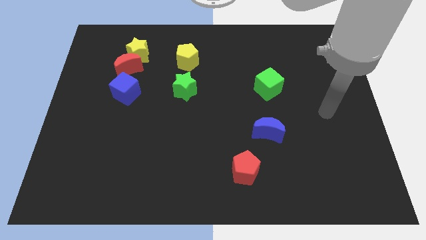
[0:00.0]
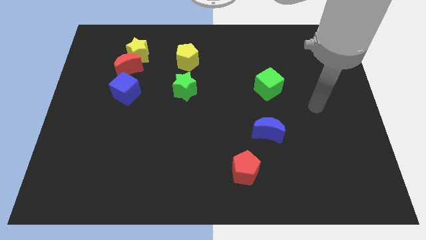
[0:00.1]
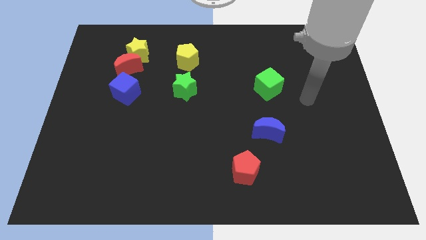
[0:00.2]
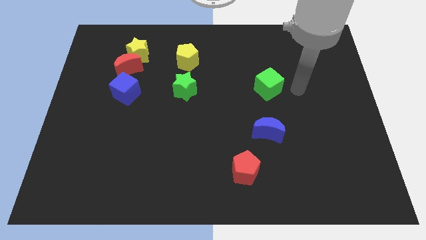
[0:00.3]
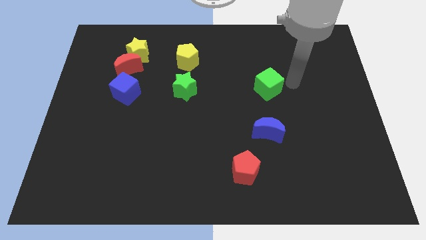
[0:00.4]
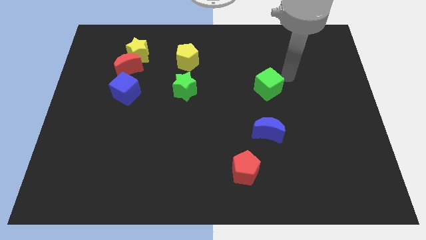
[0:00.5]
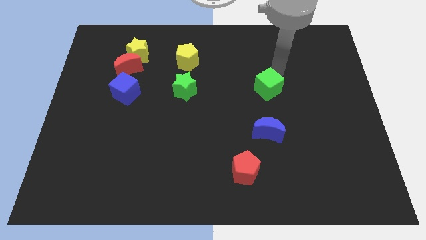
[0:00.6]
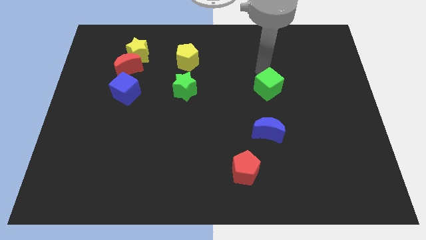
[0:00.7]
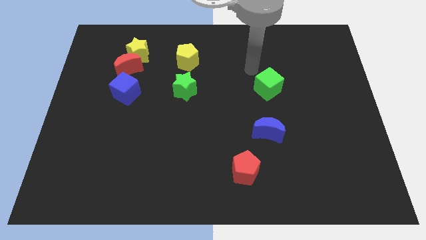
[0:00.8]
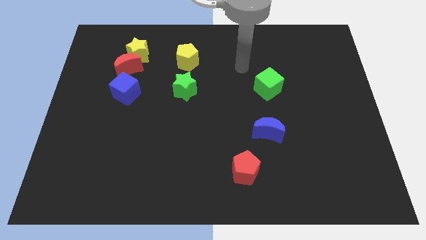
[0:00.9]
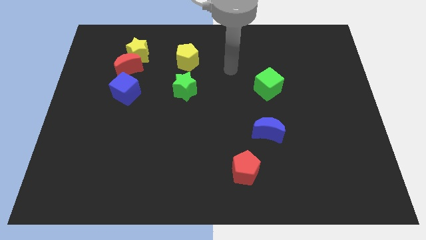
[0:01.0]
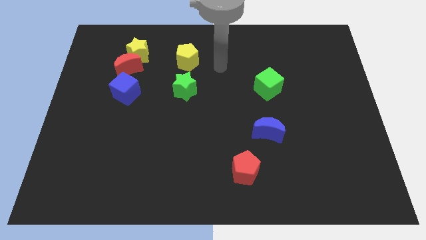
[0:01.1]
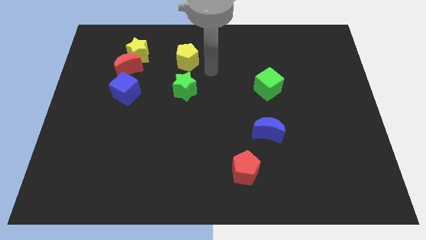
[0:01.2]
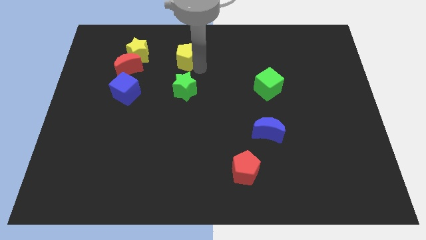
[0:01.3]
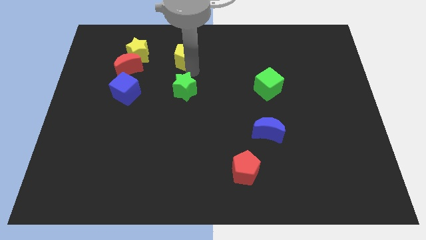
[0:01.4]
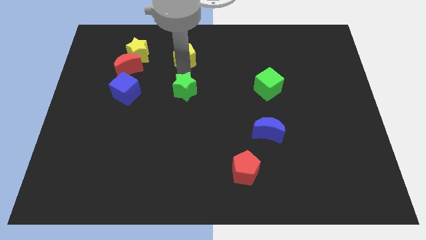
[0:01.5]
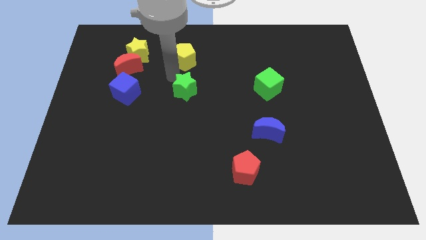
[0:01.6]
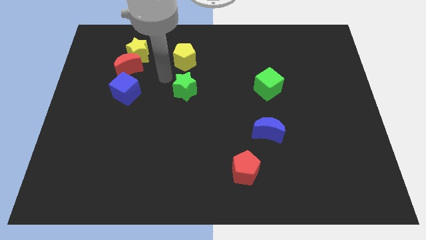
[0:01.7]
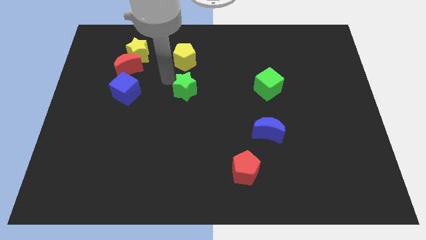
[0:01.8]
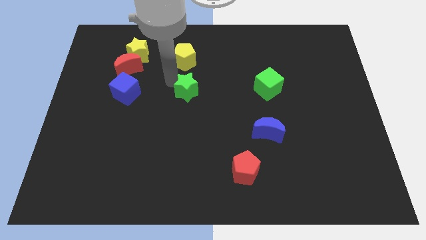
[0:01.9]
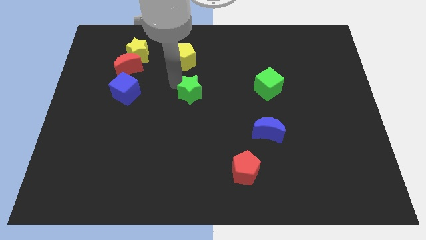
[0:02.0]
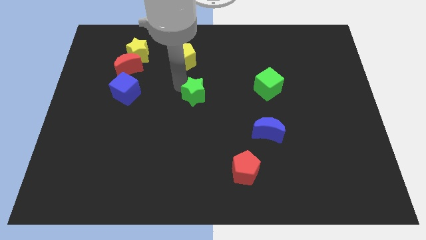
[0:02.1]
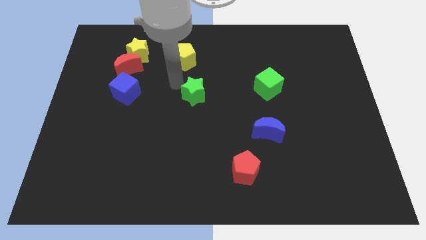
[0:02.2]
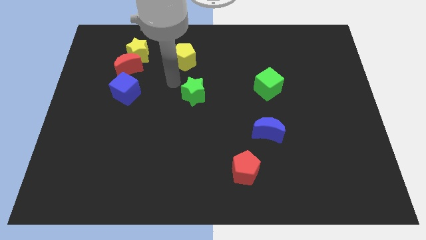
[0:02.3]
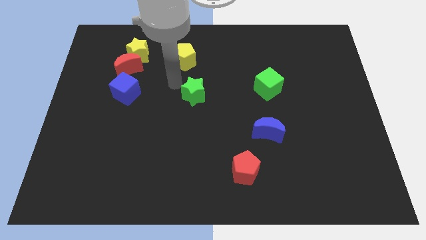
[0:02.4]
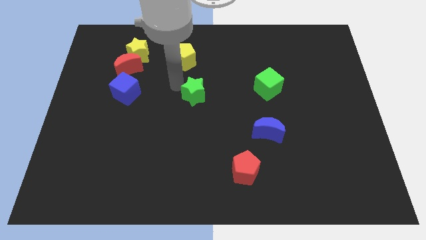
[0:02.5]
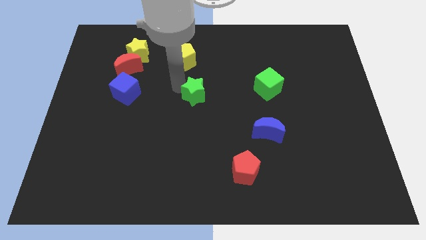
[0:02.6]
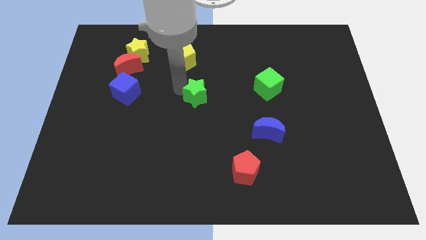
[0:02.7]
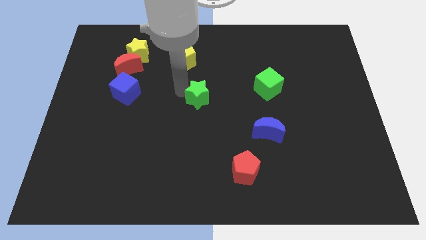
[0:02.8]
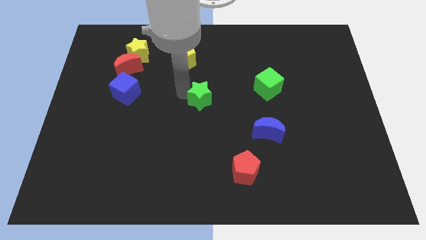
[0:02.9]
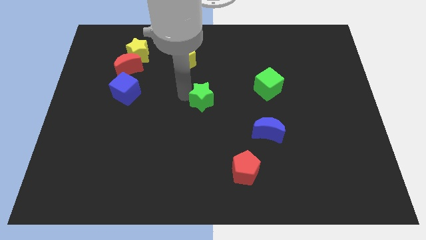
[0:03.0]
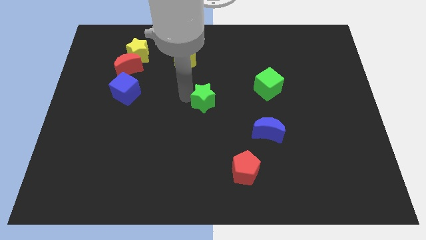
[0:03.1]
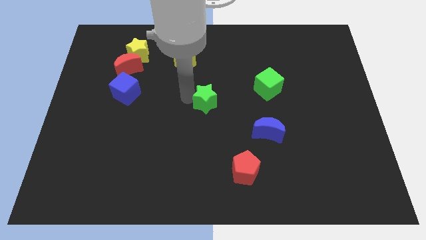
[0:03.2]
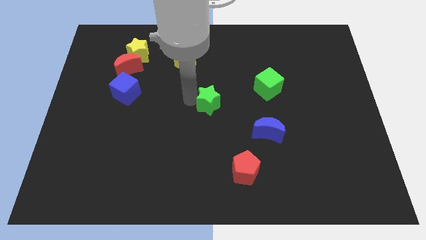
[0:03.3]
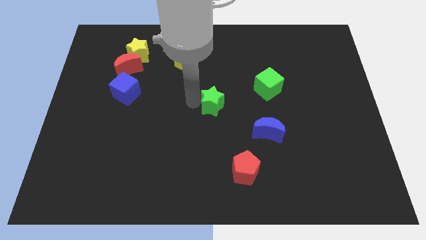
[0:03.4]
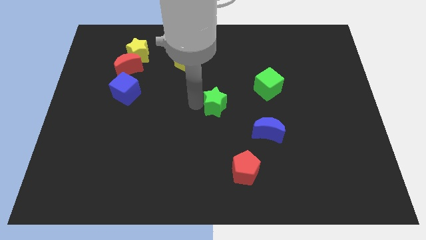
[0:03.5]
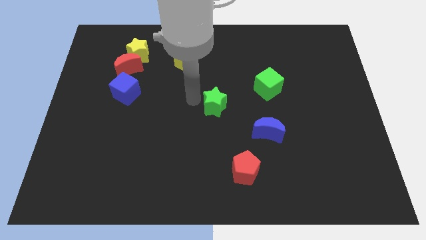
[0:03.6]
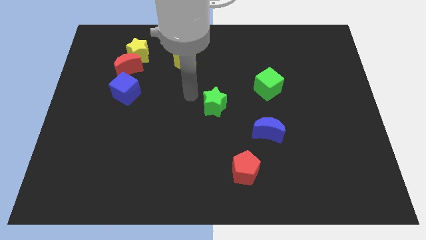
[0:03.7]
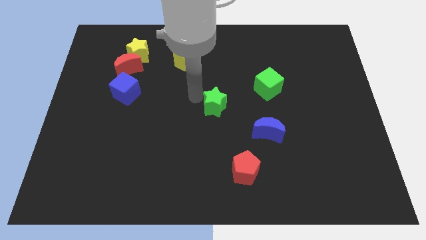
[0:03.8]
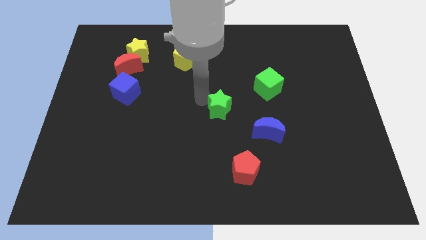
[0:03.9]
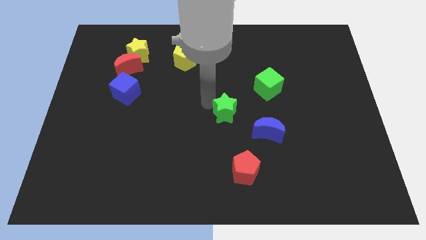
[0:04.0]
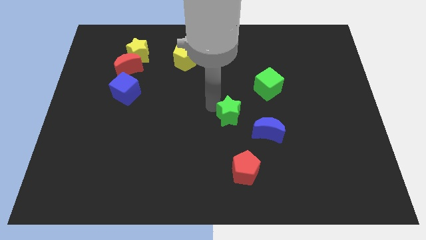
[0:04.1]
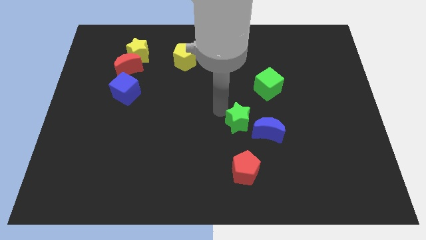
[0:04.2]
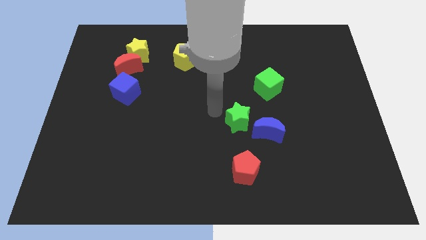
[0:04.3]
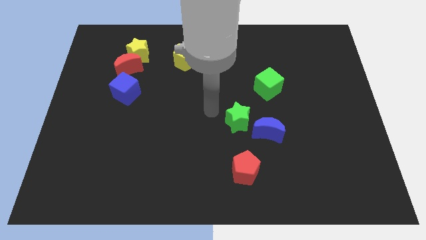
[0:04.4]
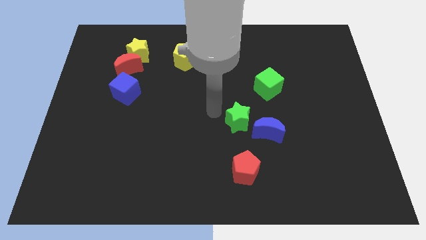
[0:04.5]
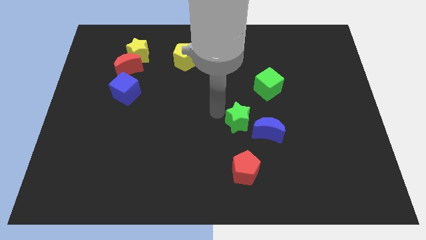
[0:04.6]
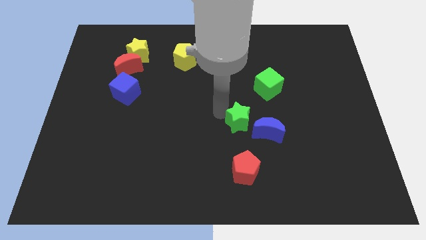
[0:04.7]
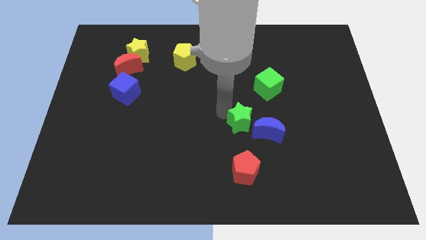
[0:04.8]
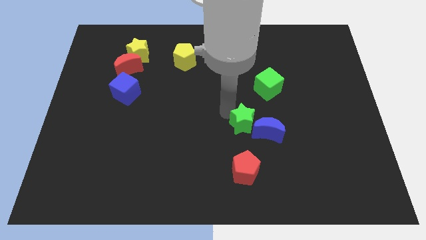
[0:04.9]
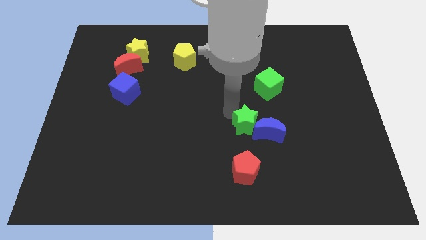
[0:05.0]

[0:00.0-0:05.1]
put the green star to the blue moon

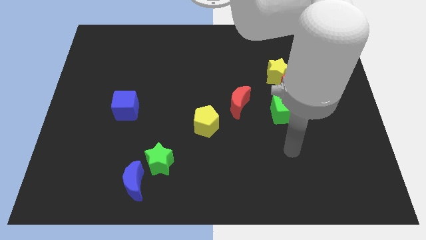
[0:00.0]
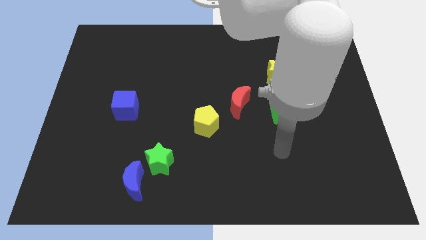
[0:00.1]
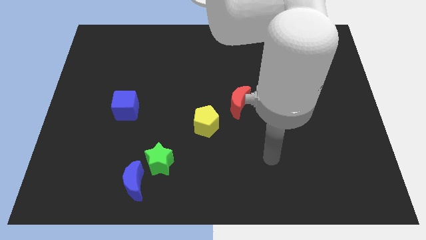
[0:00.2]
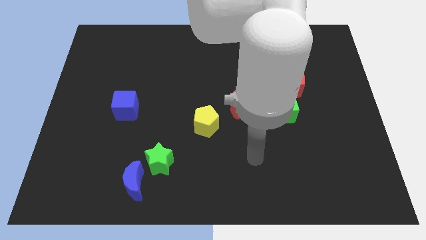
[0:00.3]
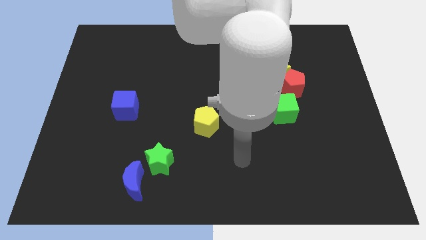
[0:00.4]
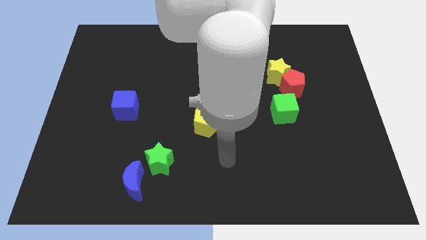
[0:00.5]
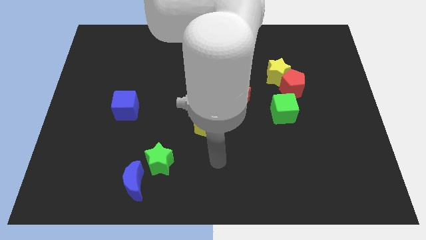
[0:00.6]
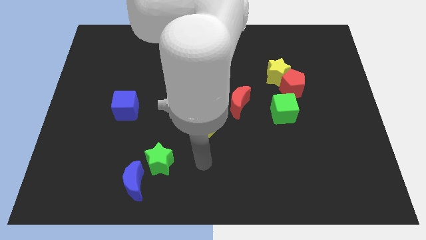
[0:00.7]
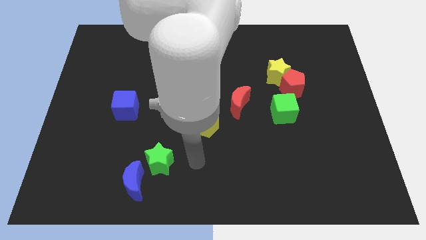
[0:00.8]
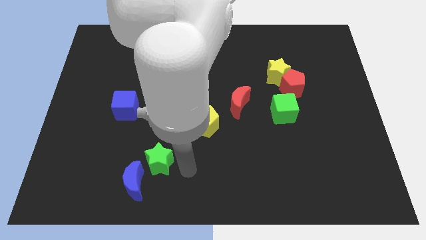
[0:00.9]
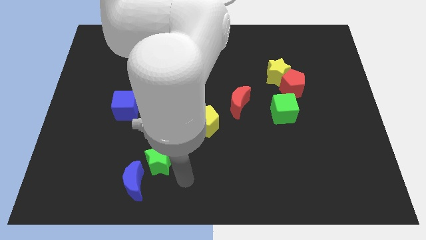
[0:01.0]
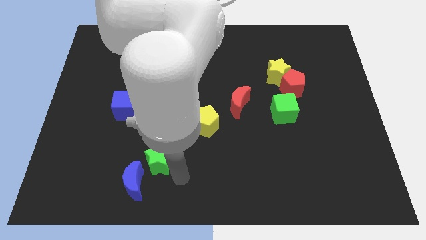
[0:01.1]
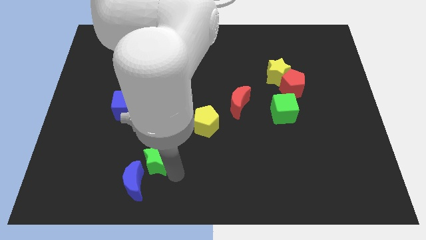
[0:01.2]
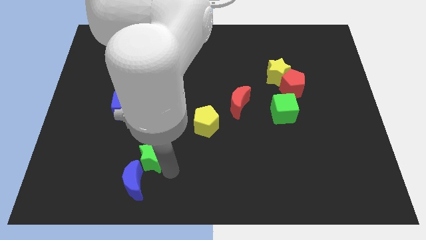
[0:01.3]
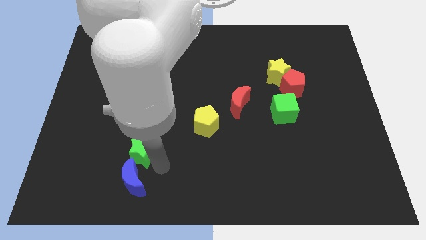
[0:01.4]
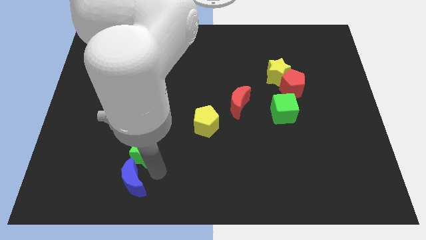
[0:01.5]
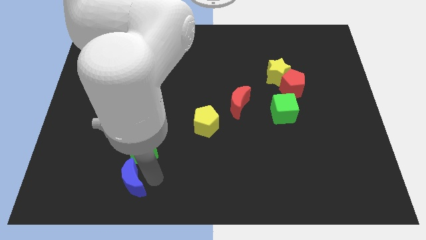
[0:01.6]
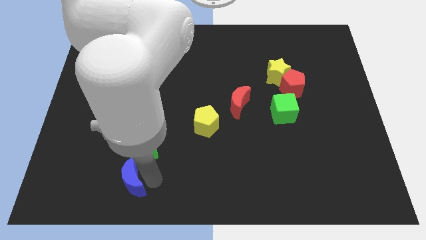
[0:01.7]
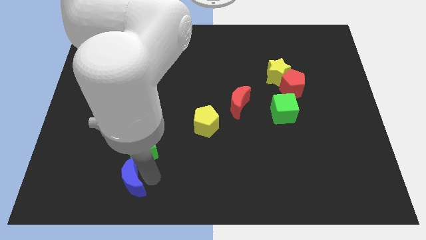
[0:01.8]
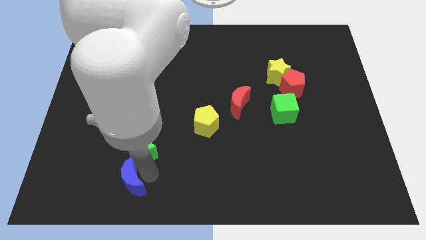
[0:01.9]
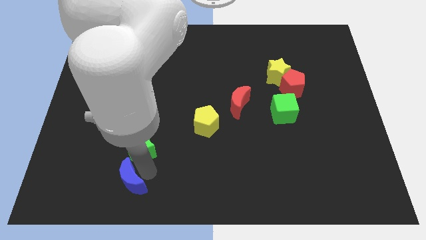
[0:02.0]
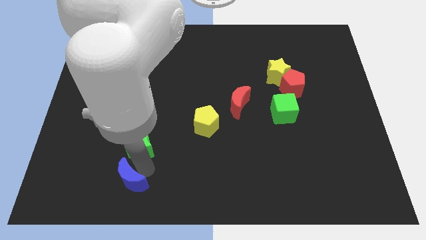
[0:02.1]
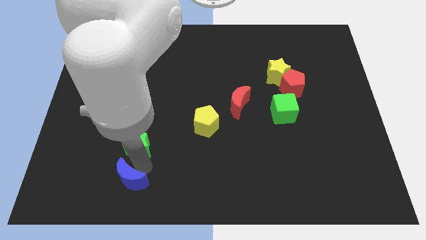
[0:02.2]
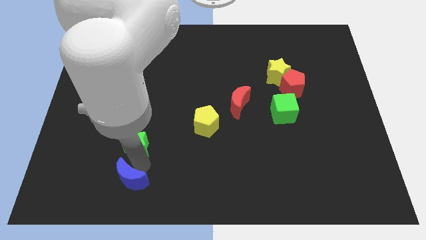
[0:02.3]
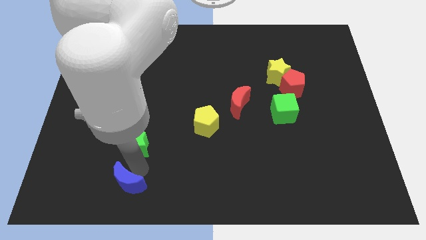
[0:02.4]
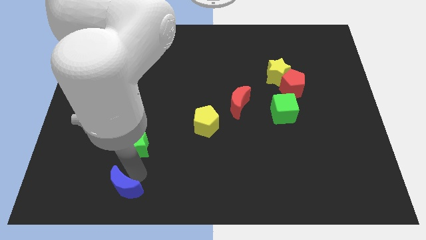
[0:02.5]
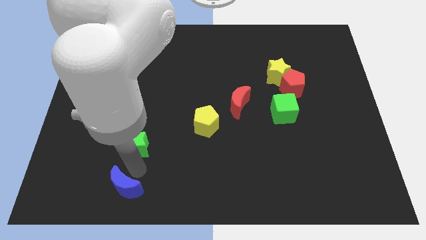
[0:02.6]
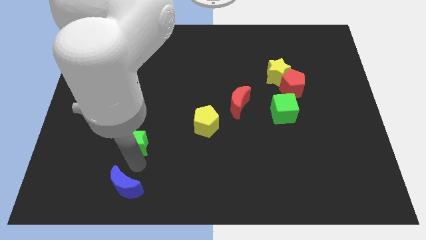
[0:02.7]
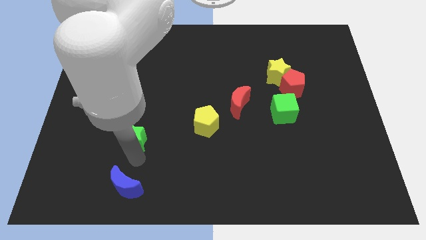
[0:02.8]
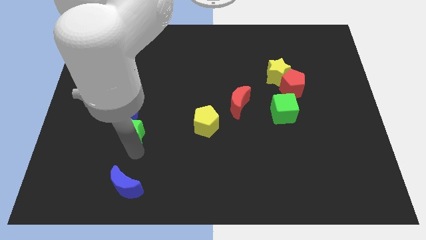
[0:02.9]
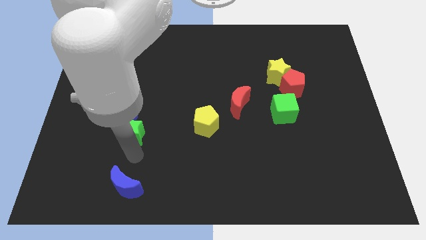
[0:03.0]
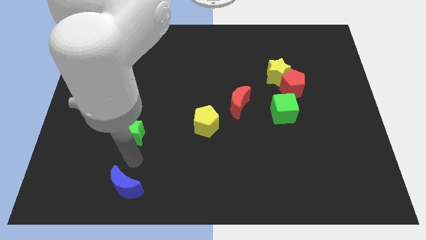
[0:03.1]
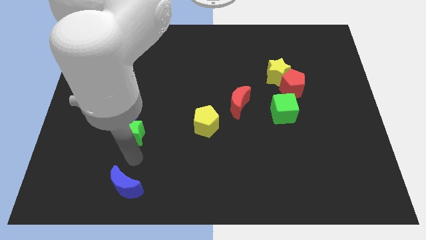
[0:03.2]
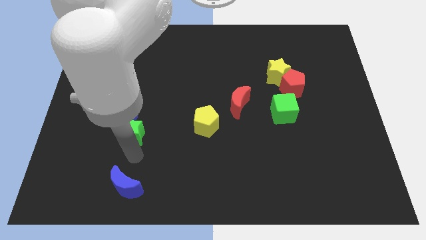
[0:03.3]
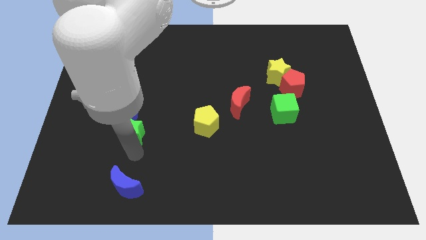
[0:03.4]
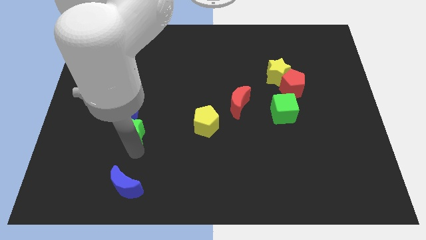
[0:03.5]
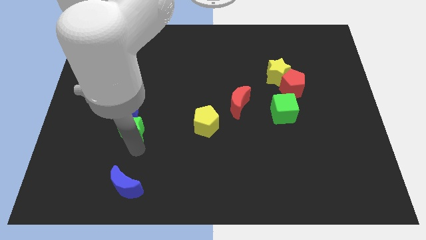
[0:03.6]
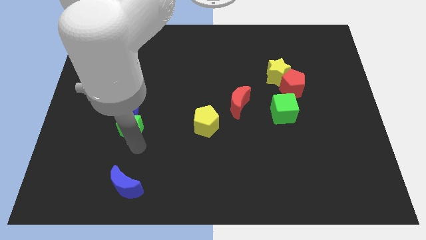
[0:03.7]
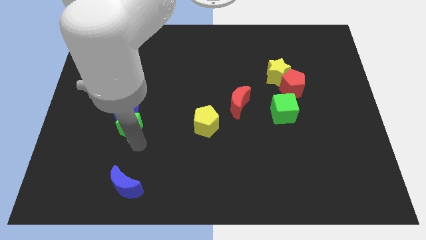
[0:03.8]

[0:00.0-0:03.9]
put the green star next to the blue cube
